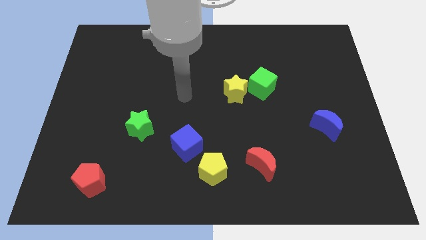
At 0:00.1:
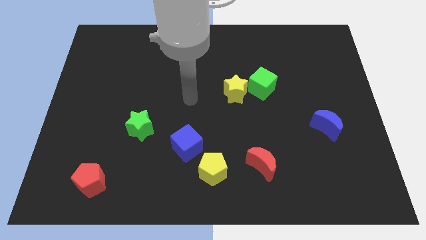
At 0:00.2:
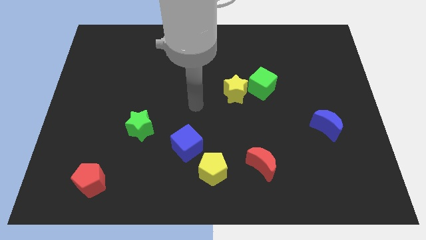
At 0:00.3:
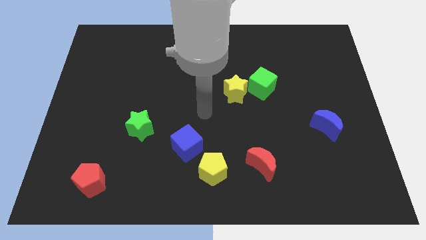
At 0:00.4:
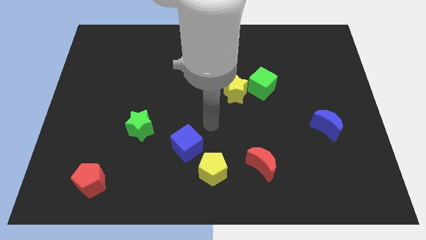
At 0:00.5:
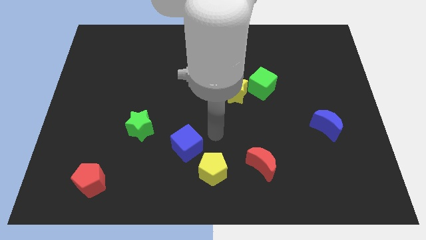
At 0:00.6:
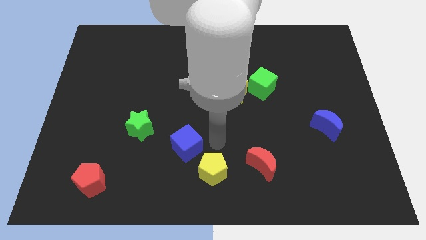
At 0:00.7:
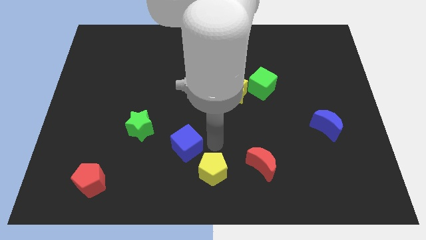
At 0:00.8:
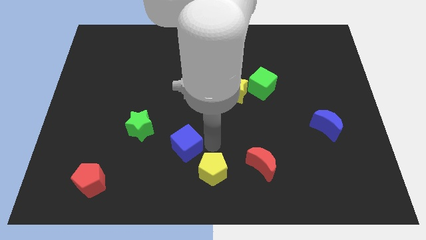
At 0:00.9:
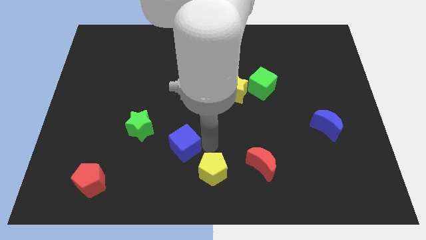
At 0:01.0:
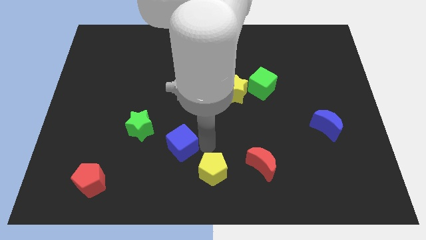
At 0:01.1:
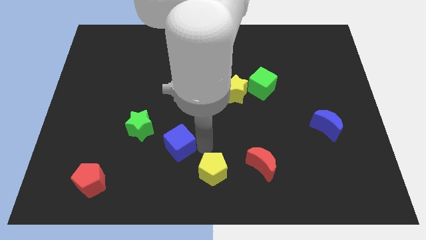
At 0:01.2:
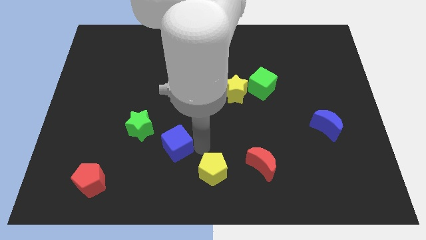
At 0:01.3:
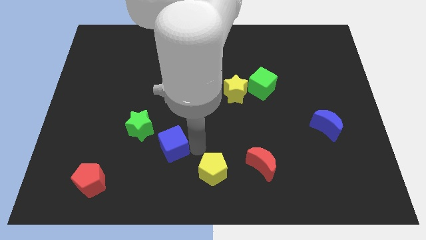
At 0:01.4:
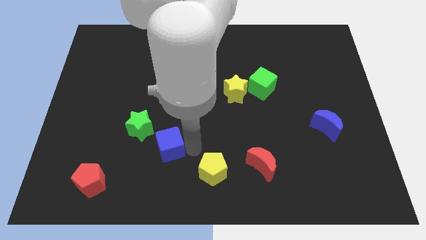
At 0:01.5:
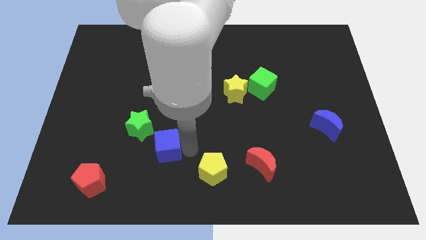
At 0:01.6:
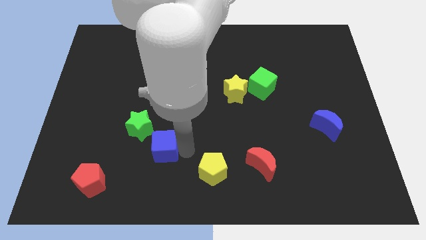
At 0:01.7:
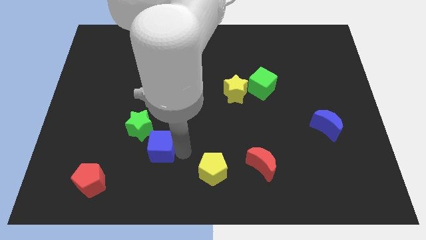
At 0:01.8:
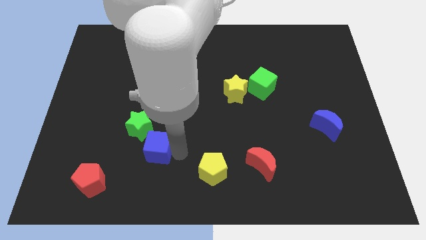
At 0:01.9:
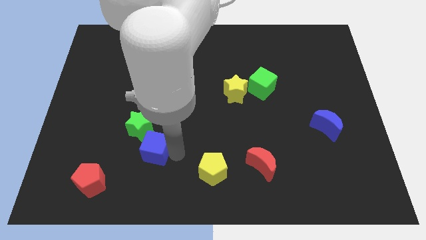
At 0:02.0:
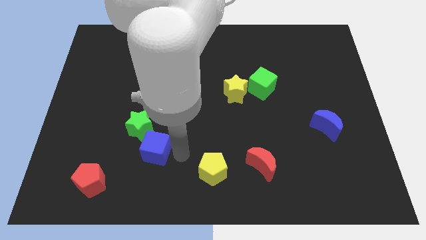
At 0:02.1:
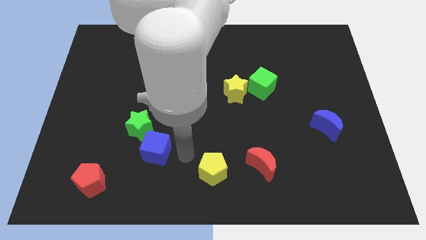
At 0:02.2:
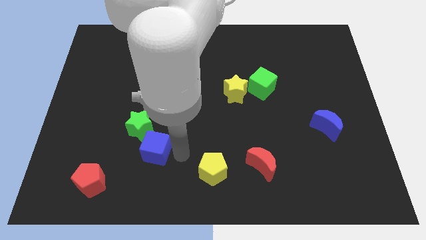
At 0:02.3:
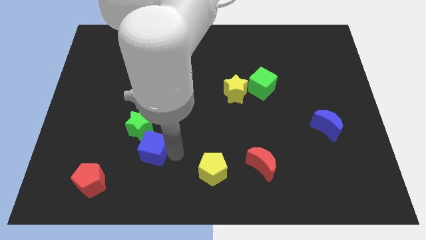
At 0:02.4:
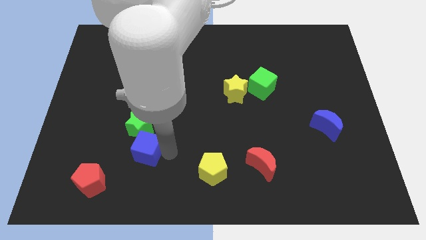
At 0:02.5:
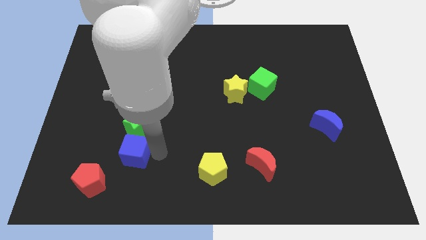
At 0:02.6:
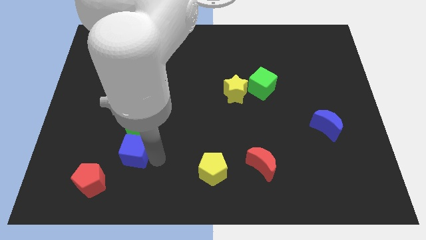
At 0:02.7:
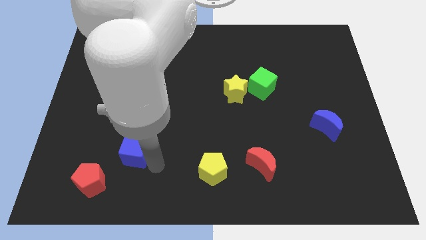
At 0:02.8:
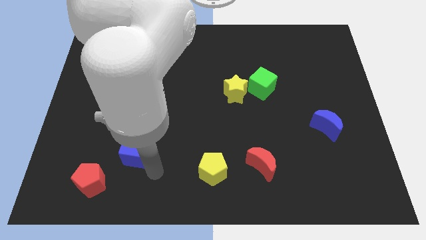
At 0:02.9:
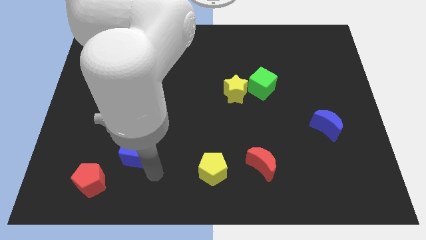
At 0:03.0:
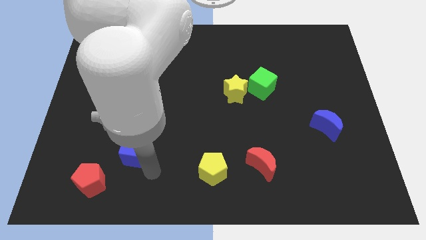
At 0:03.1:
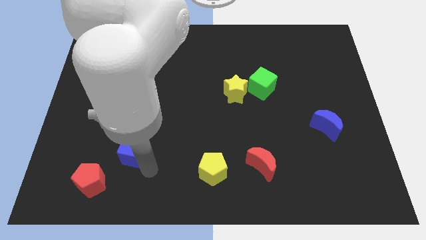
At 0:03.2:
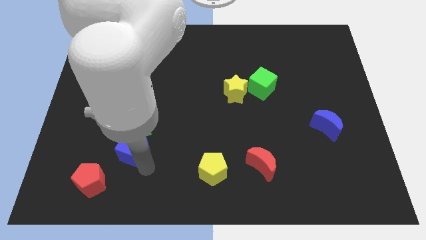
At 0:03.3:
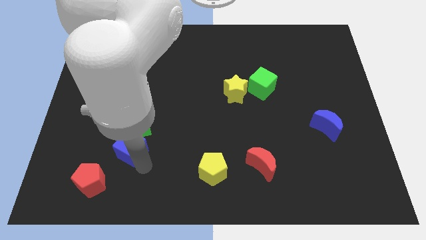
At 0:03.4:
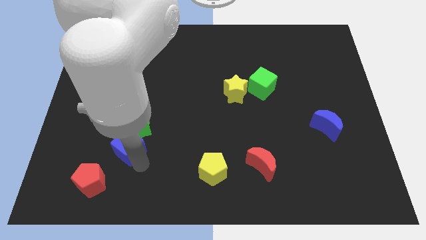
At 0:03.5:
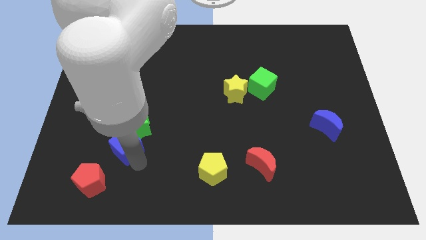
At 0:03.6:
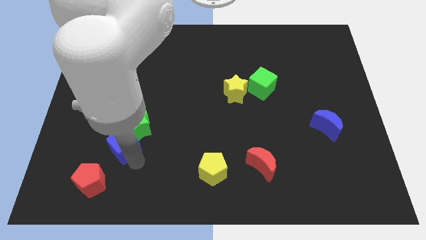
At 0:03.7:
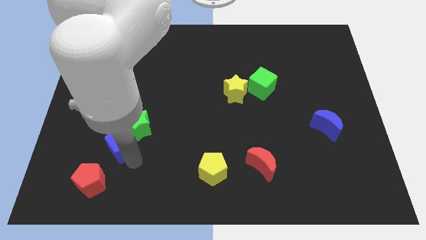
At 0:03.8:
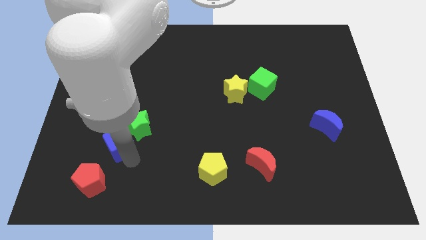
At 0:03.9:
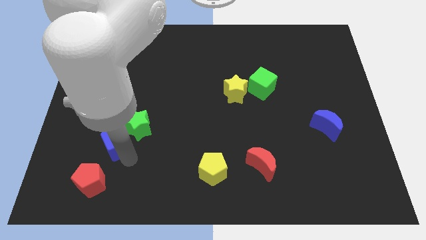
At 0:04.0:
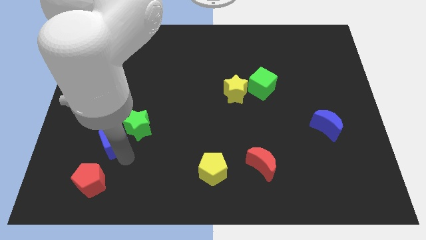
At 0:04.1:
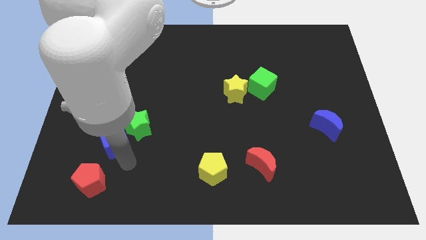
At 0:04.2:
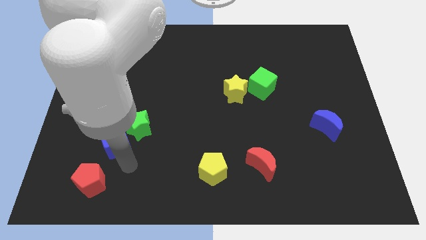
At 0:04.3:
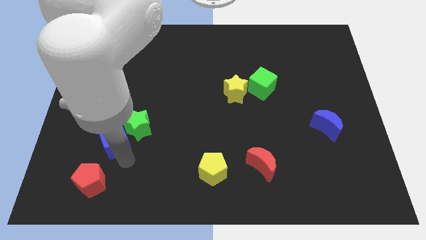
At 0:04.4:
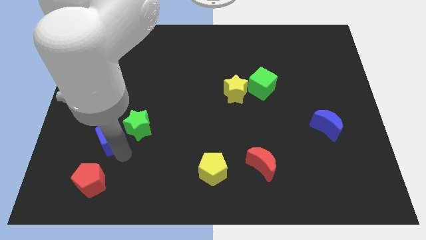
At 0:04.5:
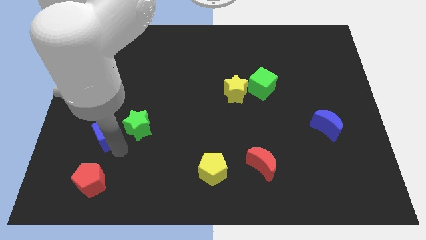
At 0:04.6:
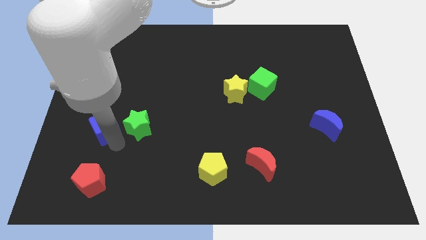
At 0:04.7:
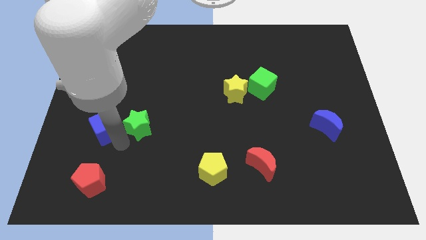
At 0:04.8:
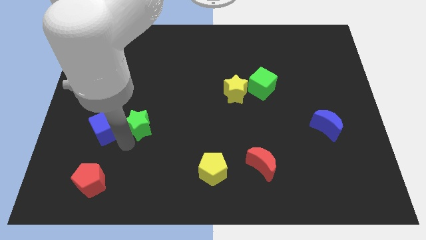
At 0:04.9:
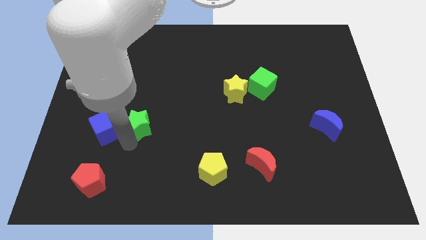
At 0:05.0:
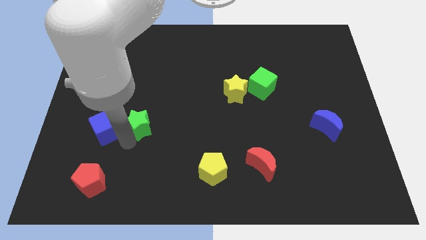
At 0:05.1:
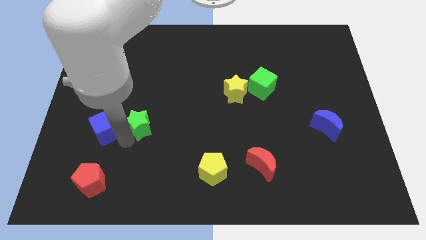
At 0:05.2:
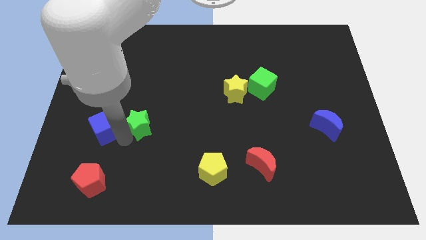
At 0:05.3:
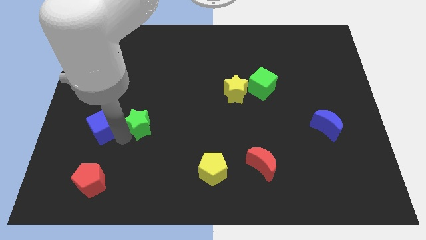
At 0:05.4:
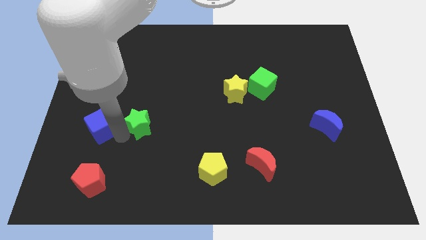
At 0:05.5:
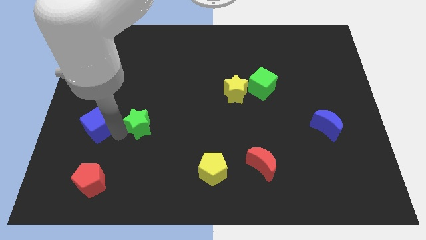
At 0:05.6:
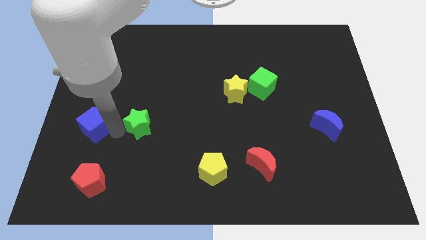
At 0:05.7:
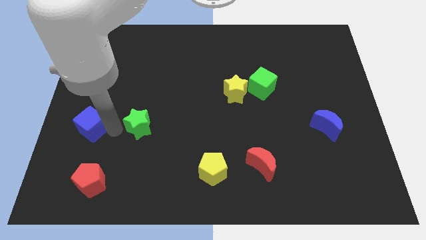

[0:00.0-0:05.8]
move the blue cube to the center left

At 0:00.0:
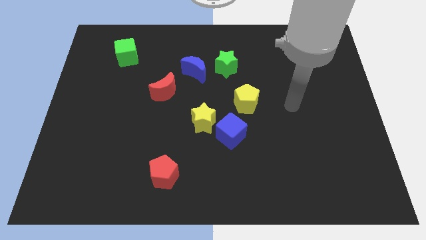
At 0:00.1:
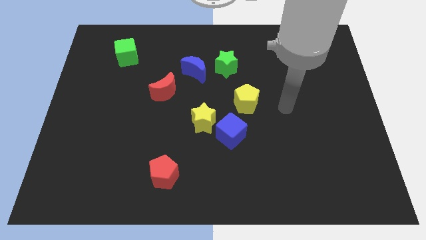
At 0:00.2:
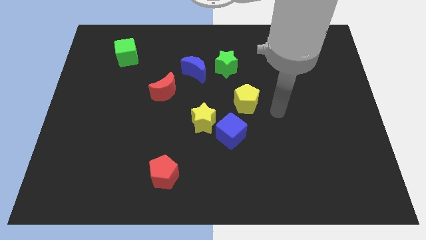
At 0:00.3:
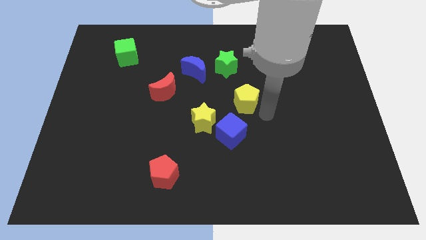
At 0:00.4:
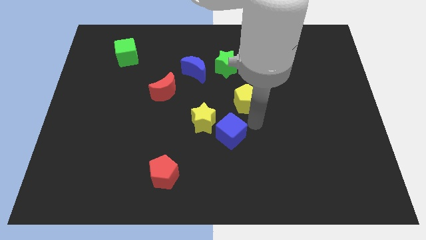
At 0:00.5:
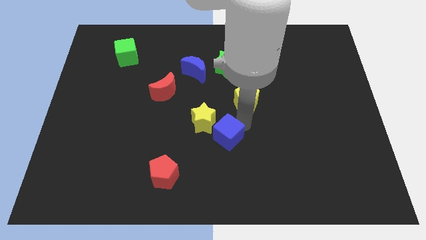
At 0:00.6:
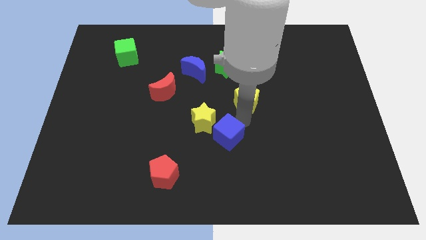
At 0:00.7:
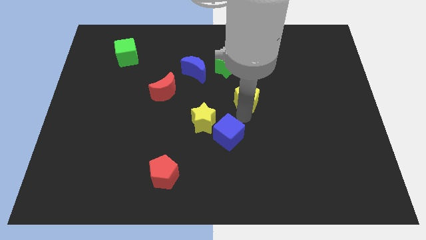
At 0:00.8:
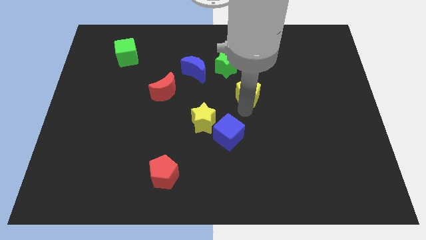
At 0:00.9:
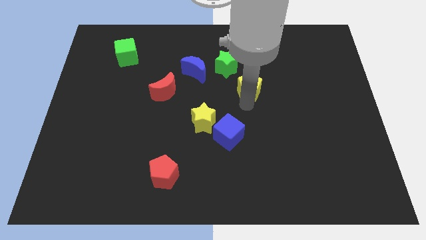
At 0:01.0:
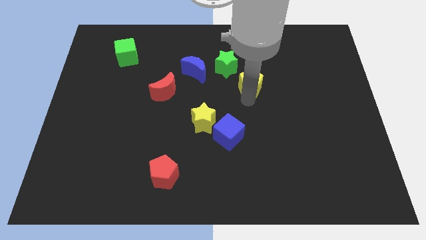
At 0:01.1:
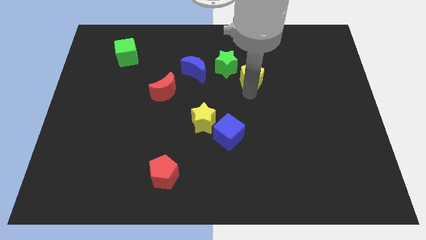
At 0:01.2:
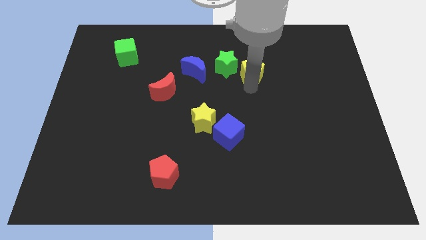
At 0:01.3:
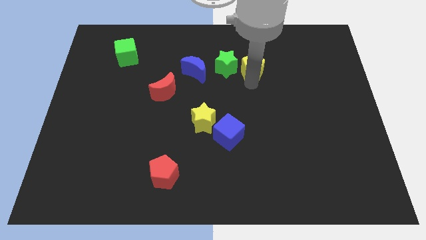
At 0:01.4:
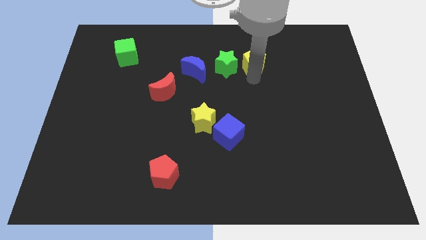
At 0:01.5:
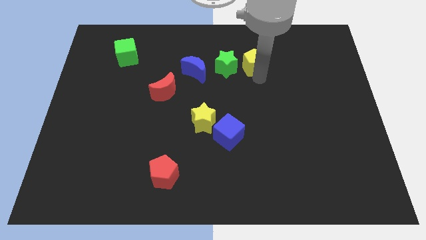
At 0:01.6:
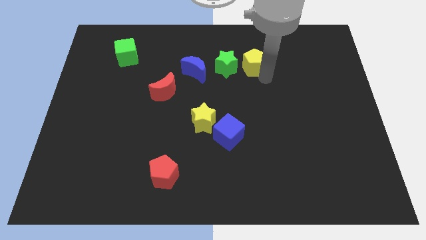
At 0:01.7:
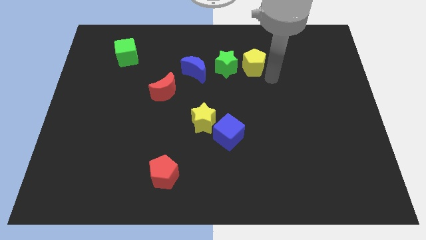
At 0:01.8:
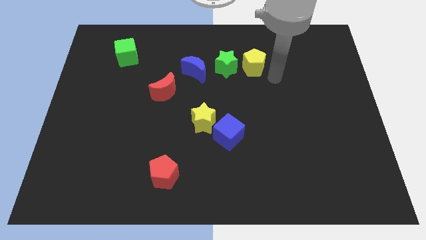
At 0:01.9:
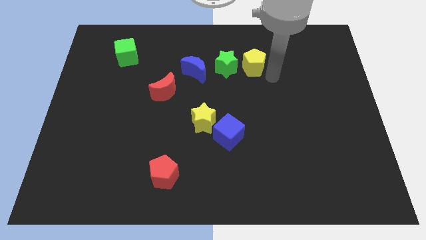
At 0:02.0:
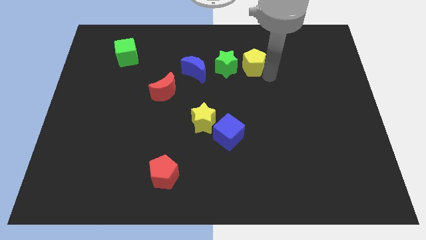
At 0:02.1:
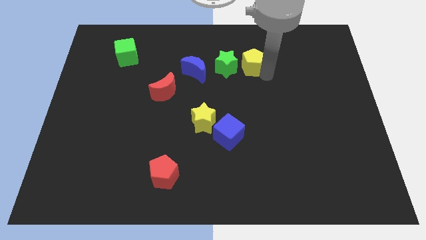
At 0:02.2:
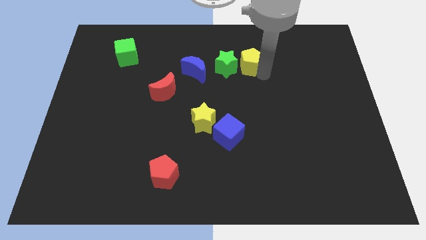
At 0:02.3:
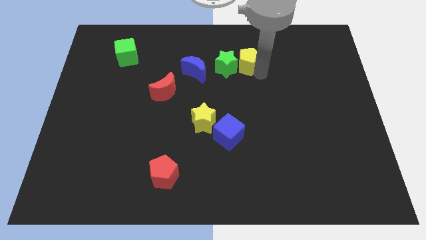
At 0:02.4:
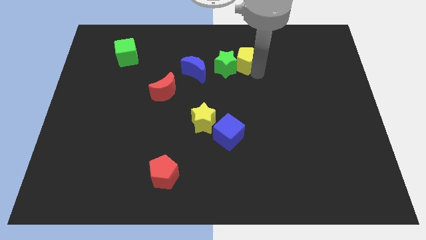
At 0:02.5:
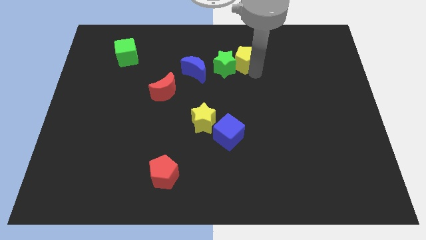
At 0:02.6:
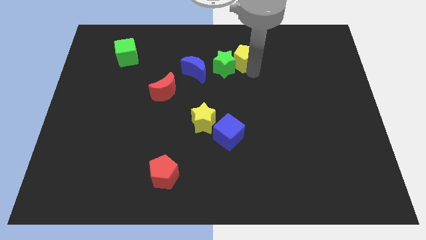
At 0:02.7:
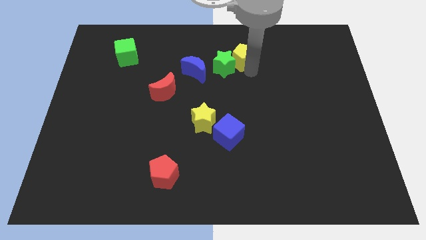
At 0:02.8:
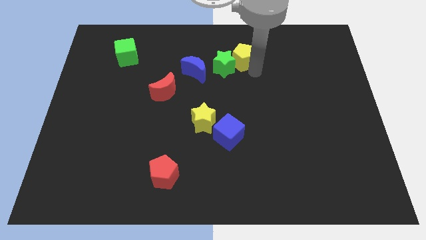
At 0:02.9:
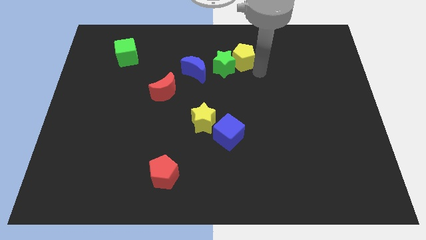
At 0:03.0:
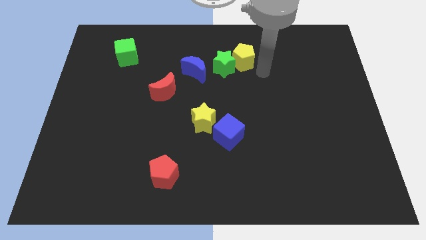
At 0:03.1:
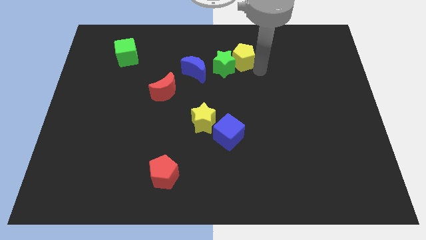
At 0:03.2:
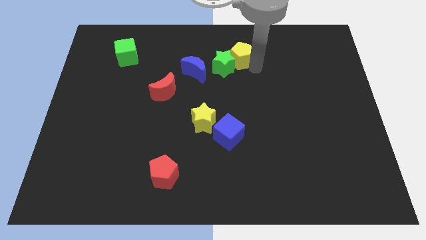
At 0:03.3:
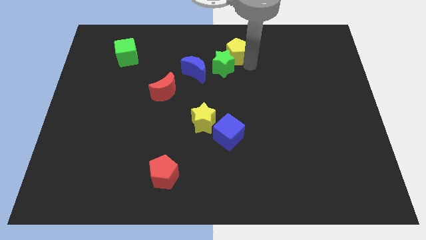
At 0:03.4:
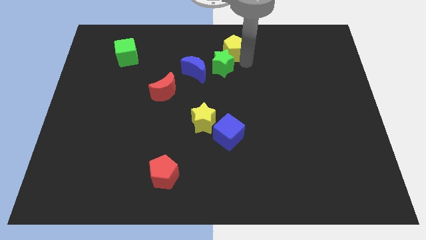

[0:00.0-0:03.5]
move the yellow pentagon to the top
